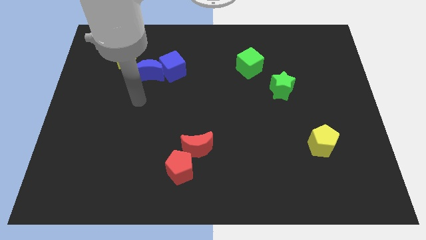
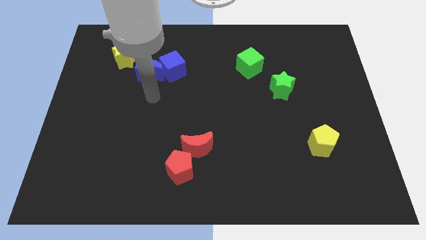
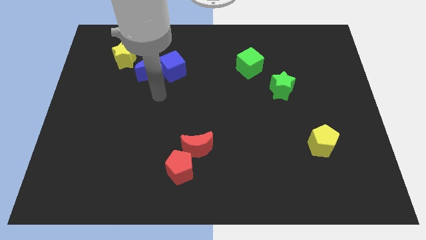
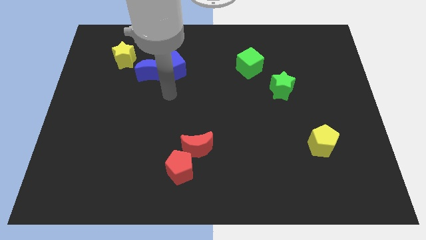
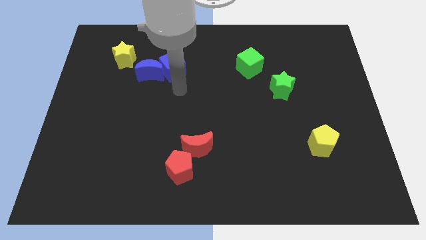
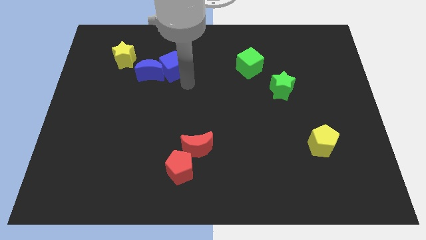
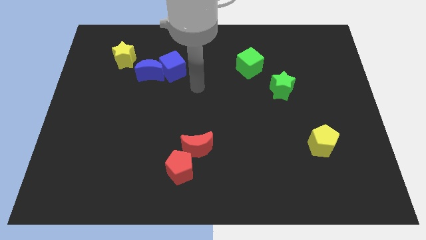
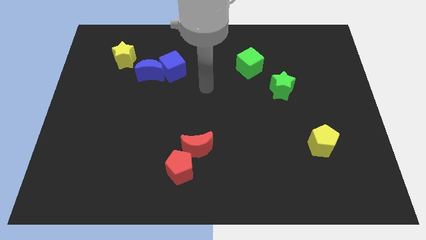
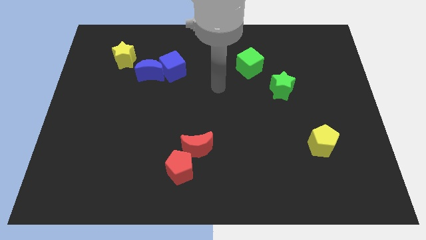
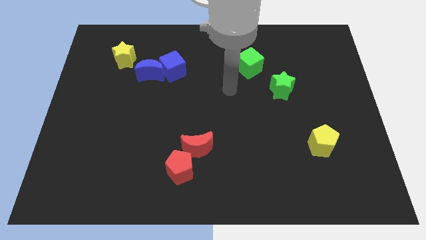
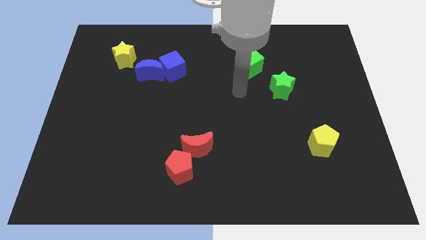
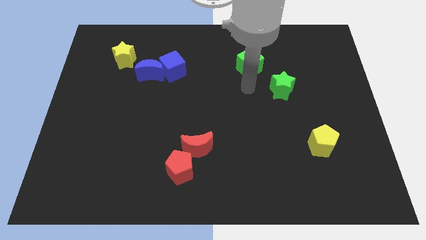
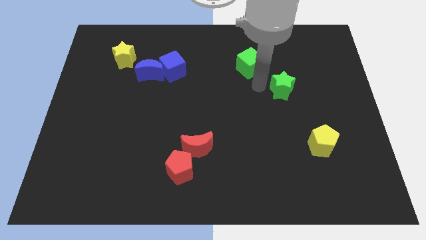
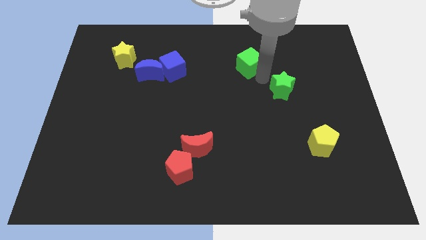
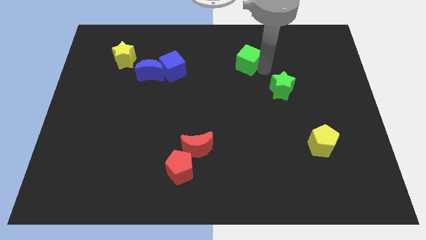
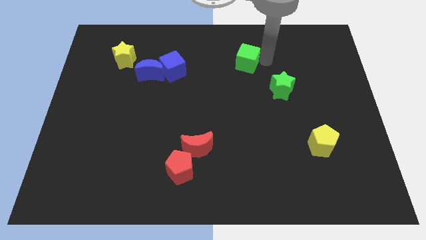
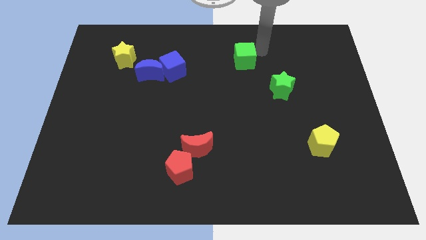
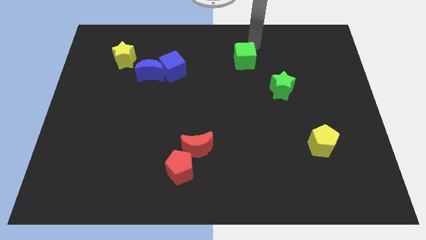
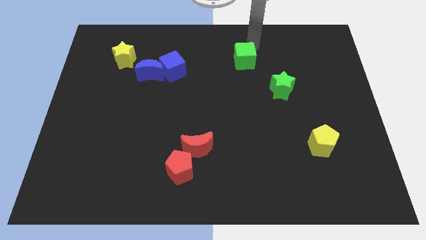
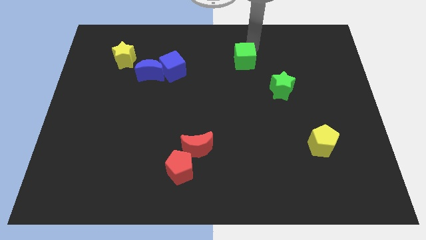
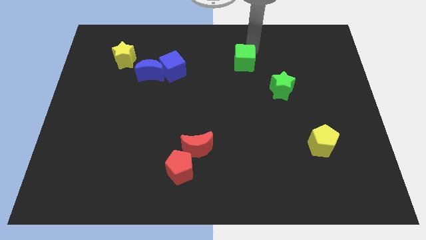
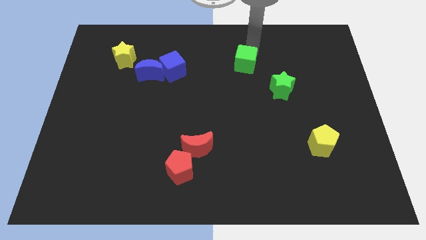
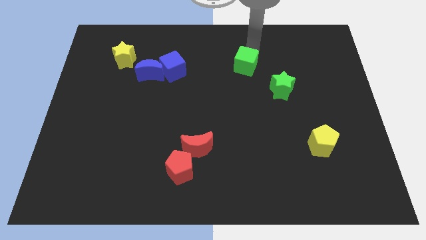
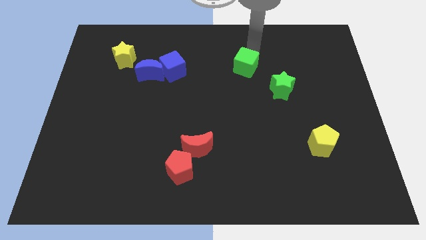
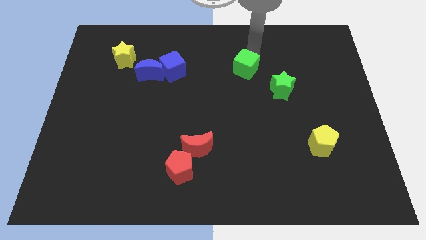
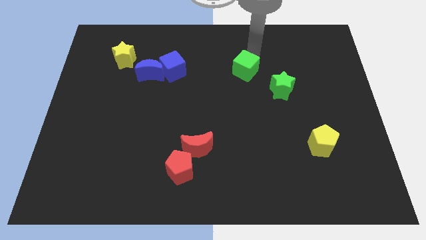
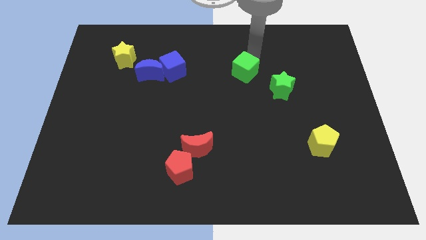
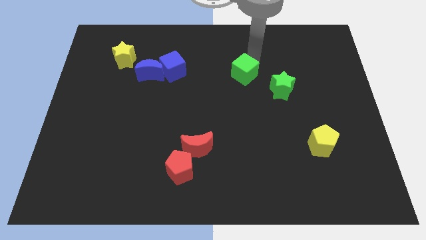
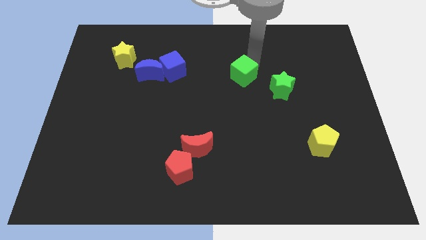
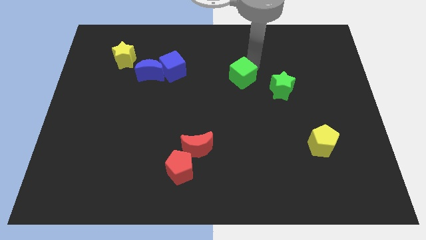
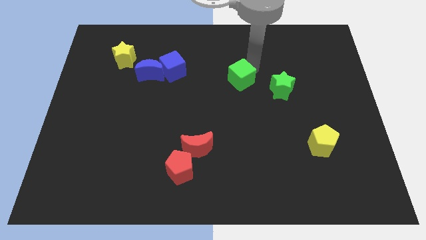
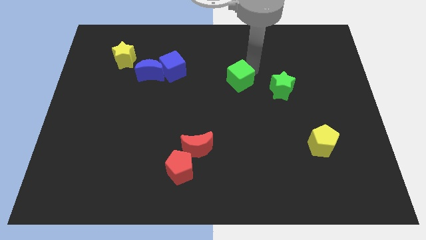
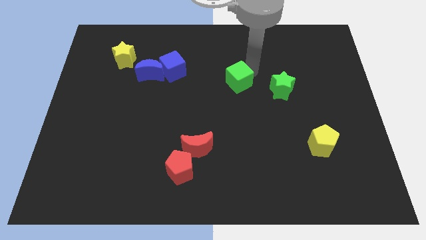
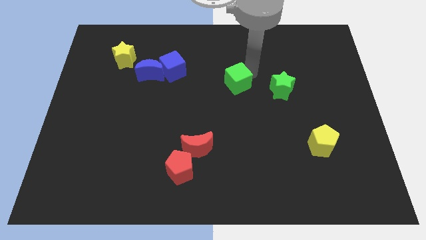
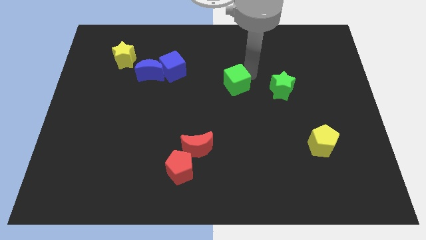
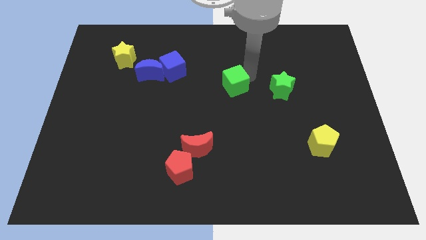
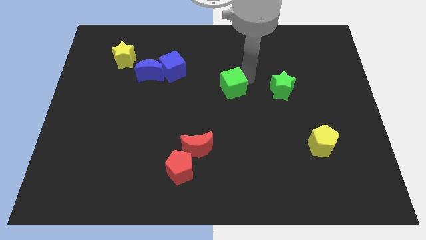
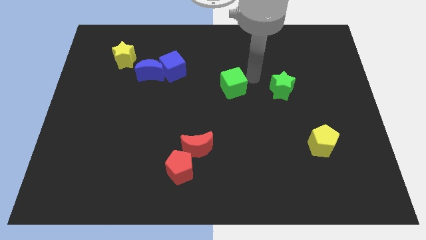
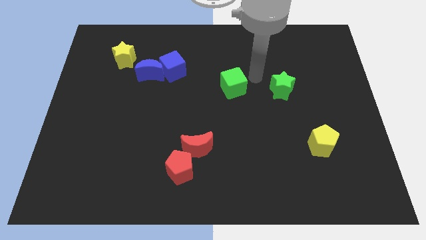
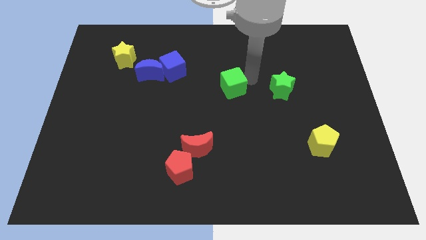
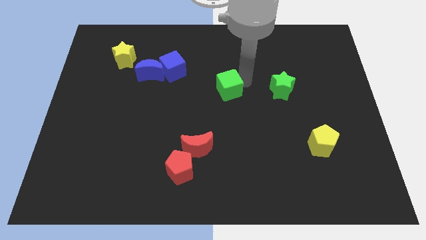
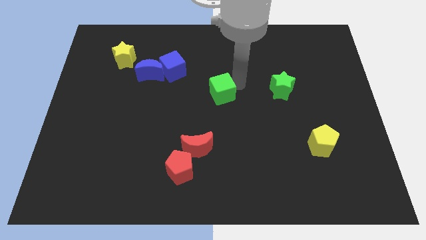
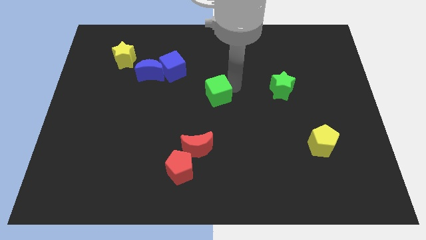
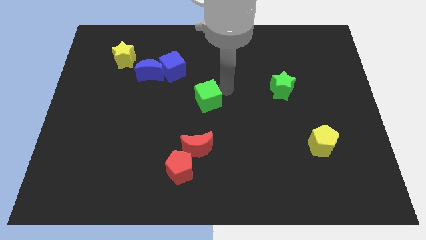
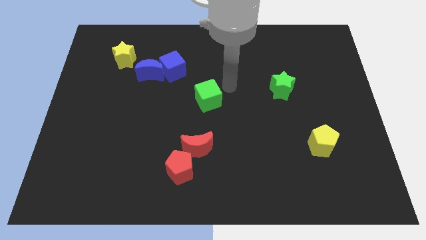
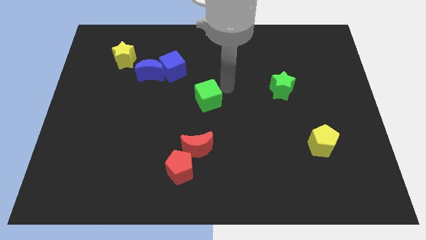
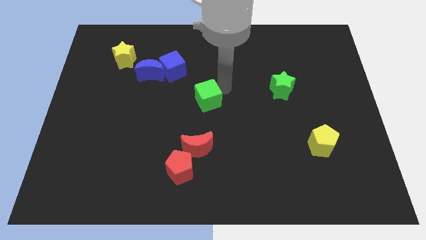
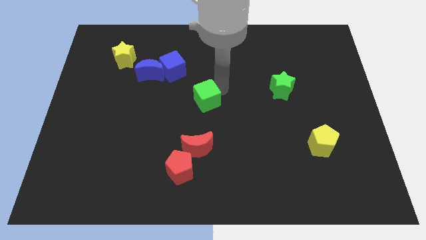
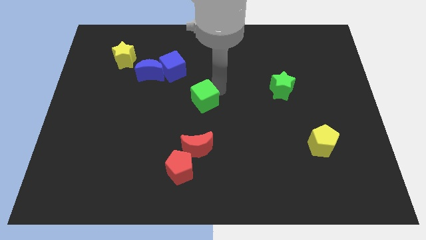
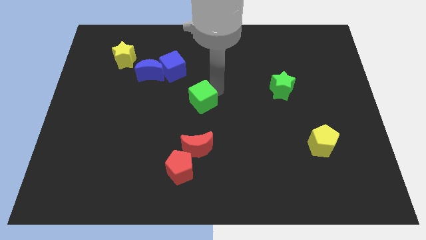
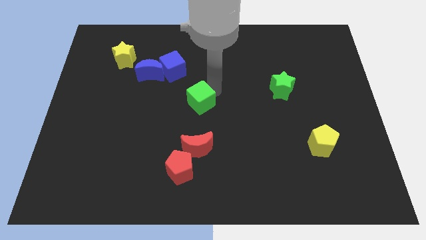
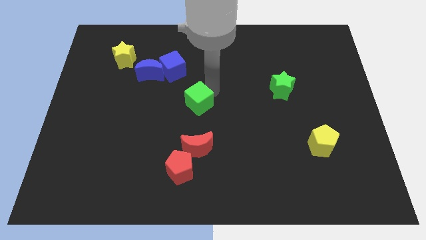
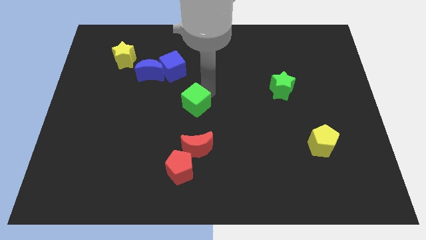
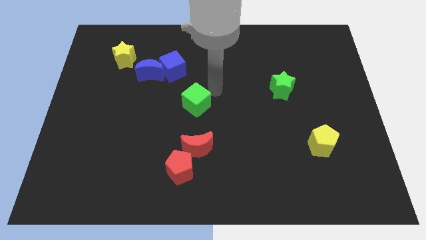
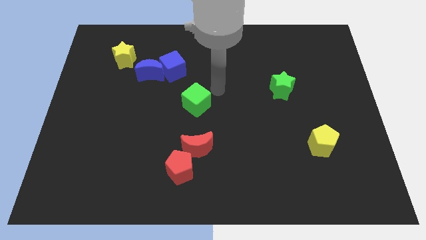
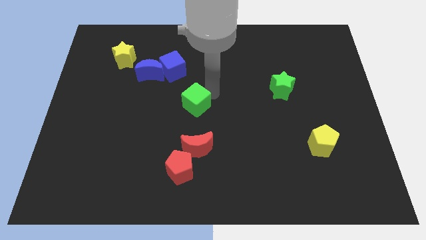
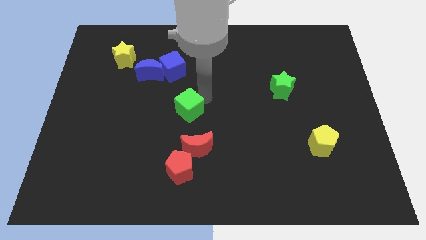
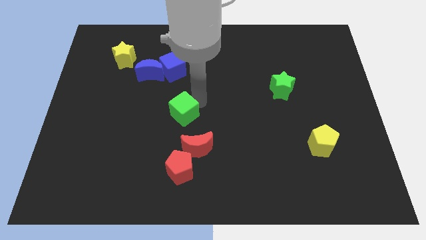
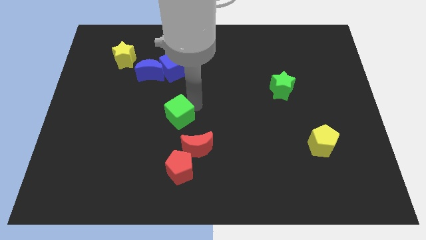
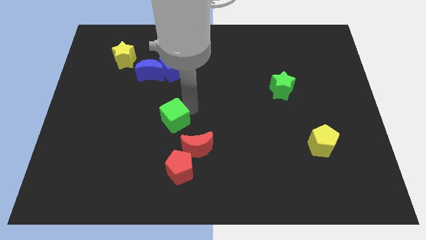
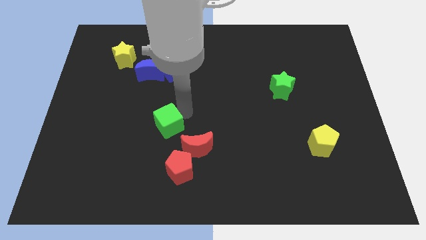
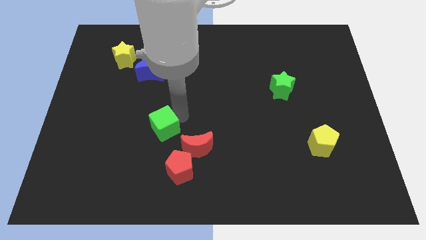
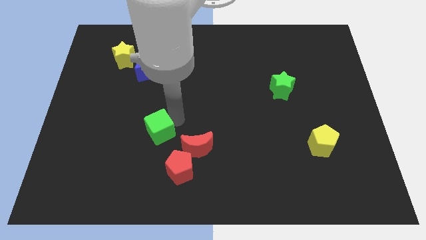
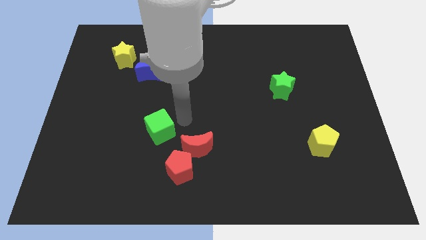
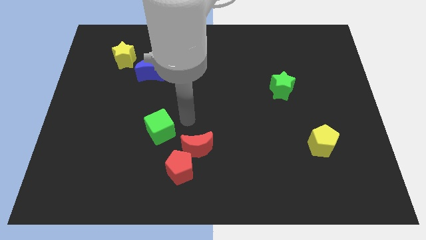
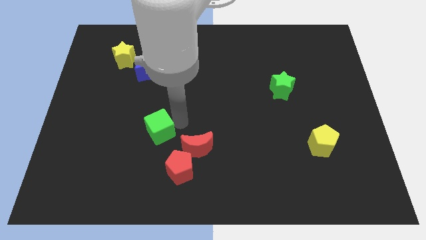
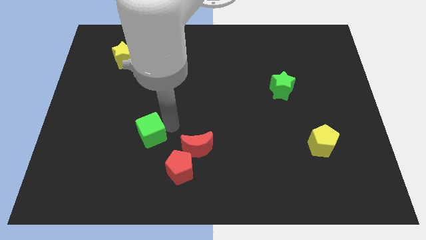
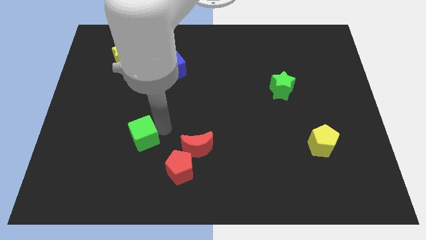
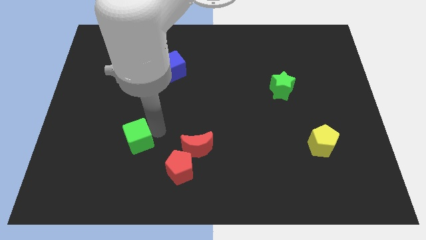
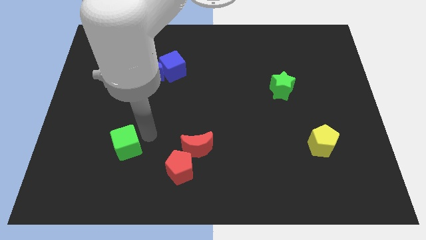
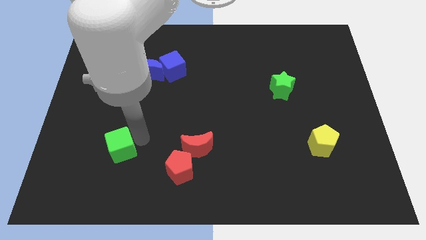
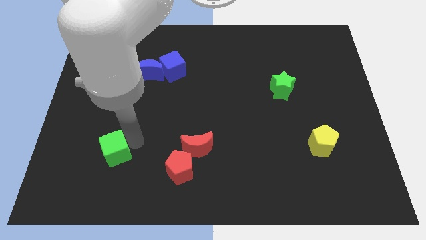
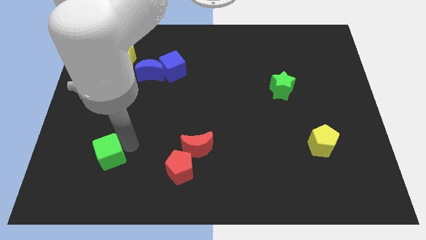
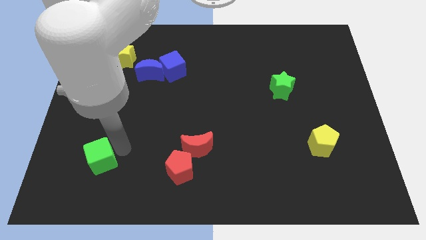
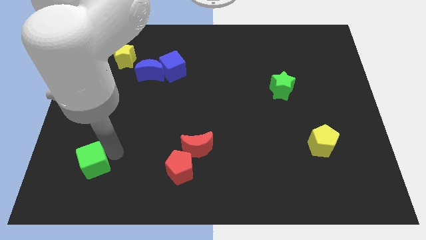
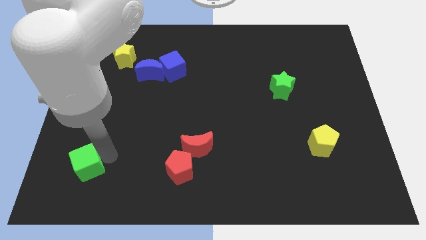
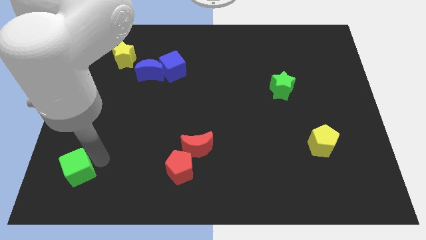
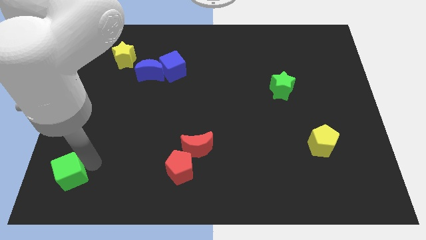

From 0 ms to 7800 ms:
move the green cube to the bottom left of the board
